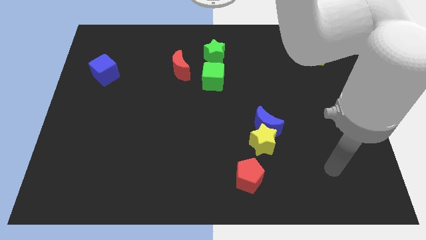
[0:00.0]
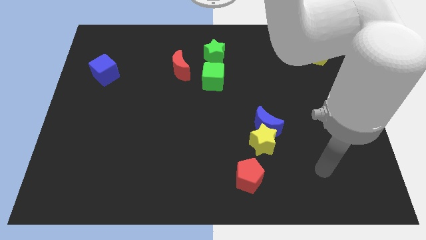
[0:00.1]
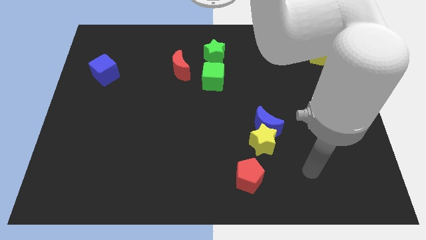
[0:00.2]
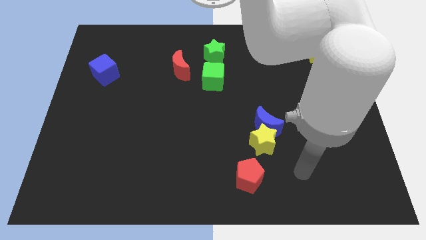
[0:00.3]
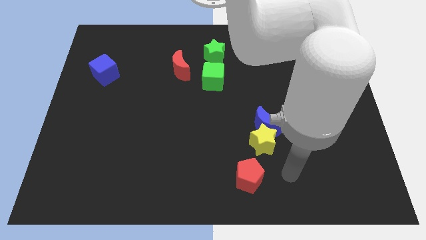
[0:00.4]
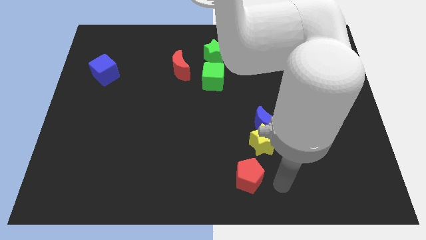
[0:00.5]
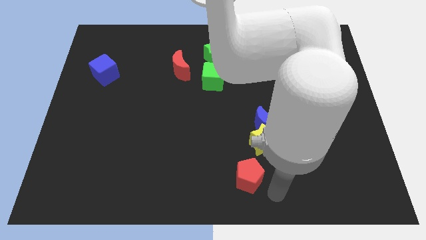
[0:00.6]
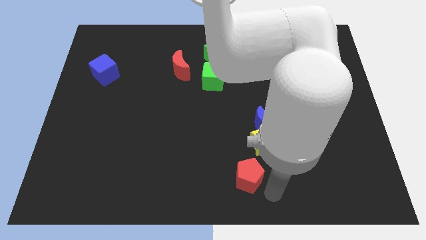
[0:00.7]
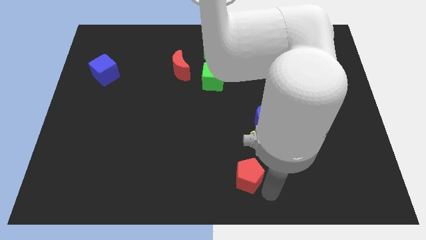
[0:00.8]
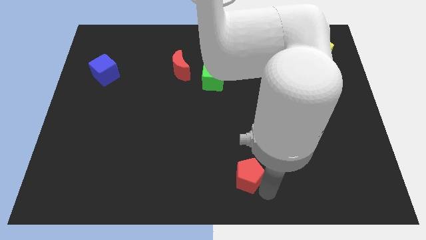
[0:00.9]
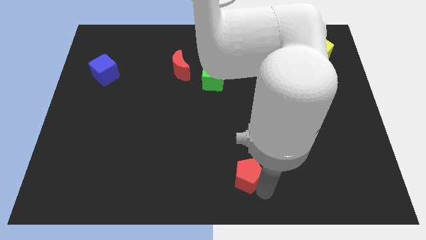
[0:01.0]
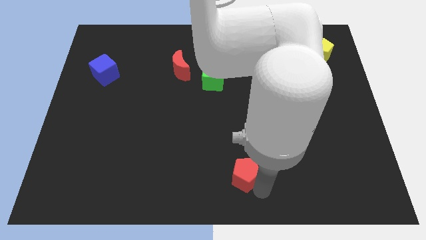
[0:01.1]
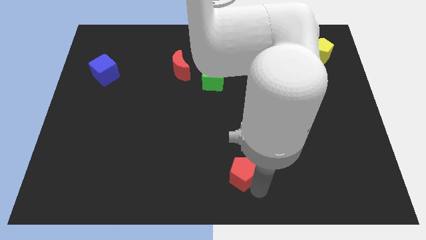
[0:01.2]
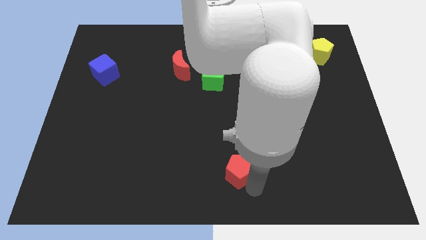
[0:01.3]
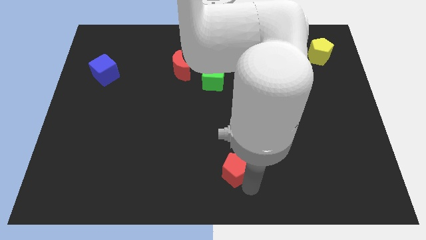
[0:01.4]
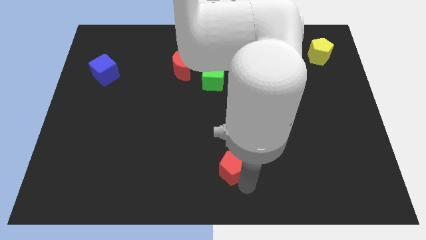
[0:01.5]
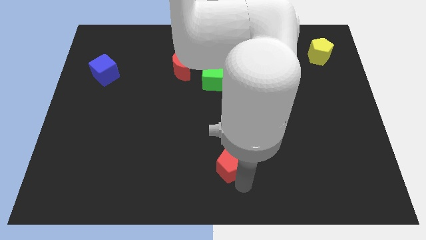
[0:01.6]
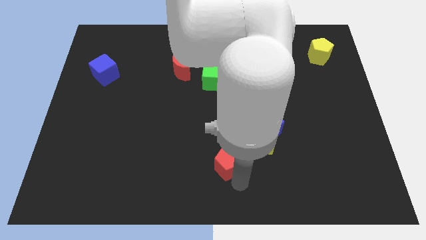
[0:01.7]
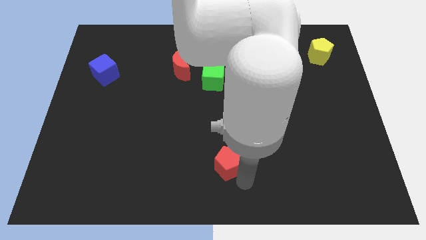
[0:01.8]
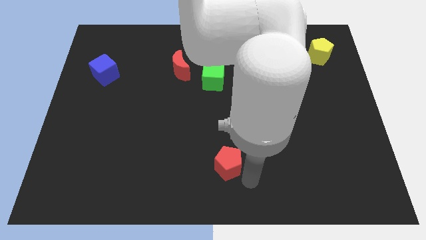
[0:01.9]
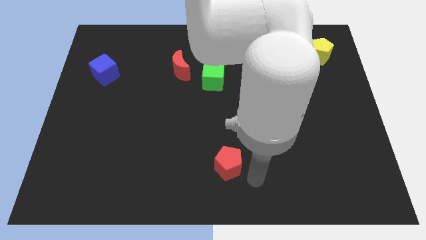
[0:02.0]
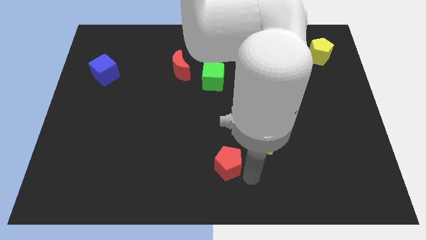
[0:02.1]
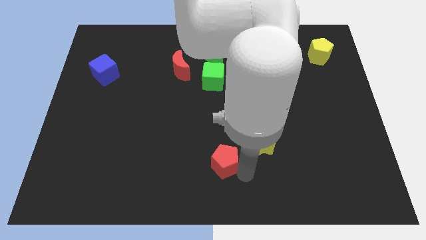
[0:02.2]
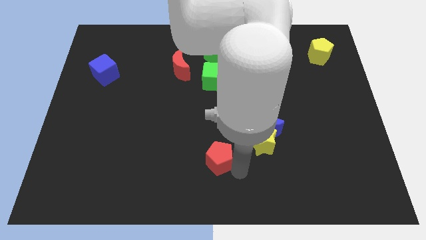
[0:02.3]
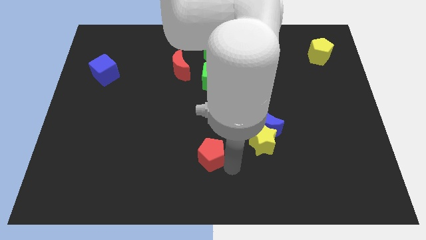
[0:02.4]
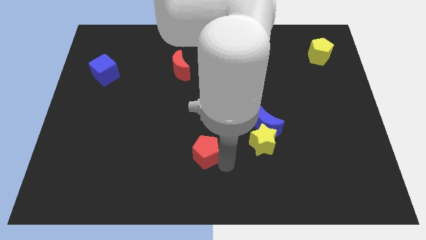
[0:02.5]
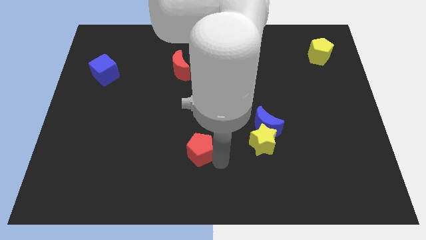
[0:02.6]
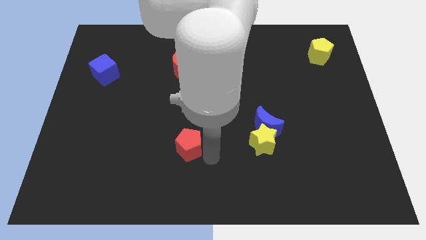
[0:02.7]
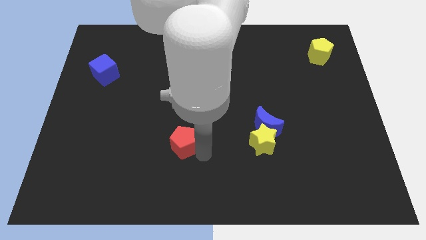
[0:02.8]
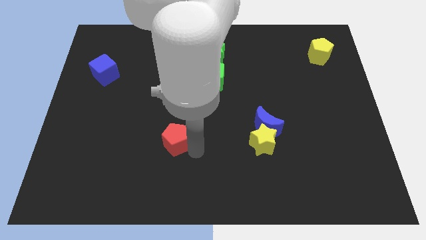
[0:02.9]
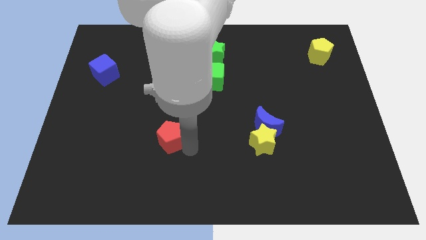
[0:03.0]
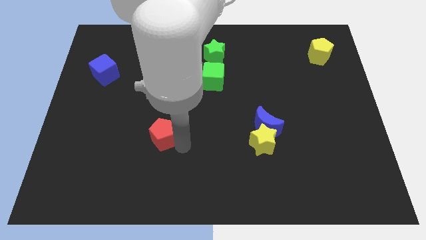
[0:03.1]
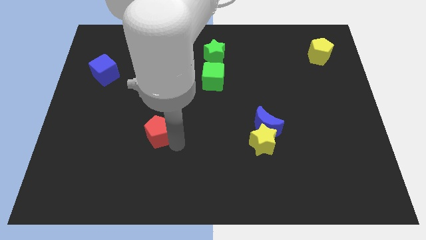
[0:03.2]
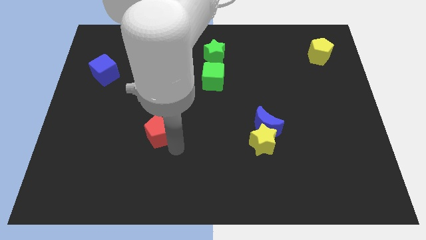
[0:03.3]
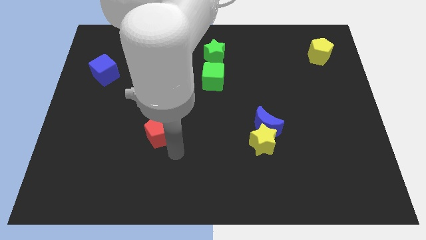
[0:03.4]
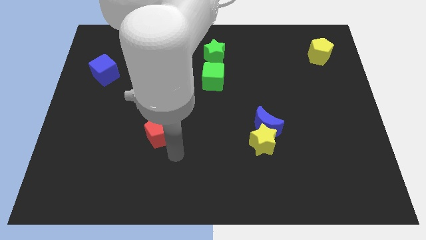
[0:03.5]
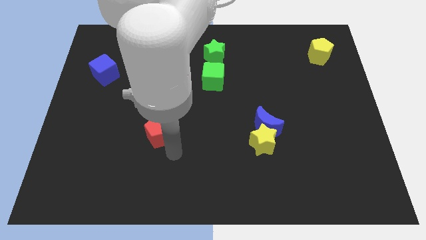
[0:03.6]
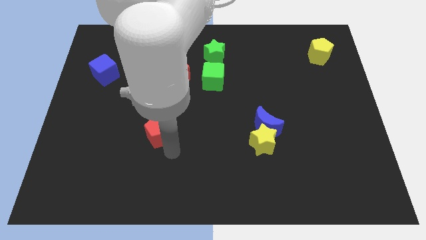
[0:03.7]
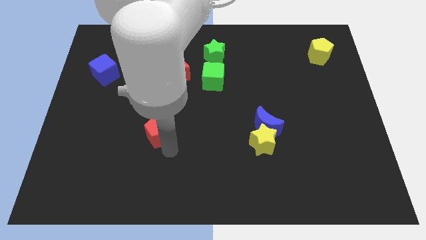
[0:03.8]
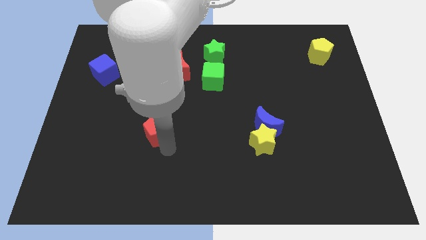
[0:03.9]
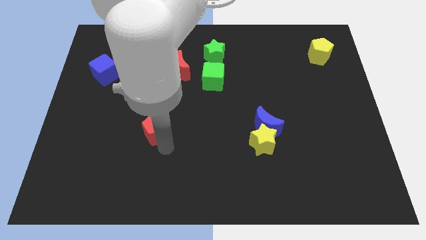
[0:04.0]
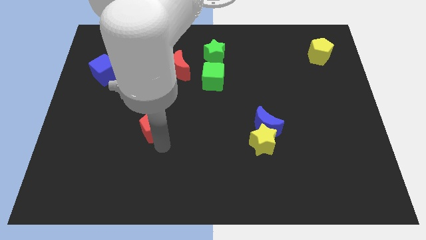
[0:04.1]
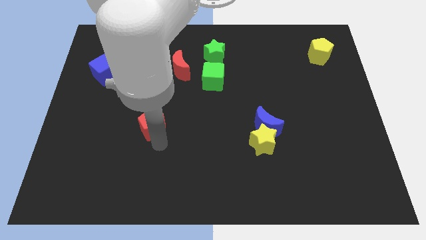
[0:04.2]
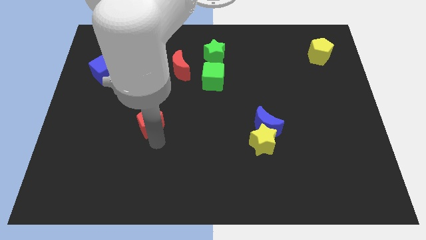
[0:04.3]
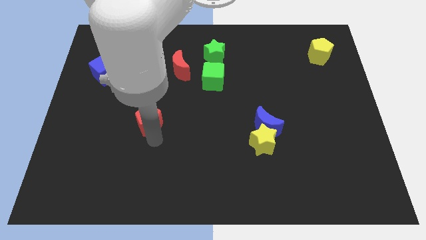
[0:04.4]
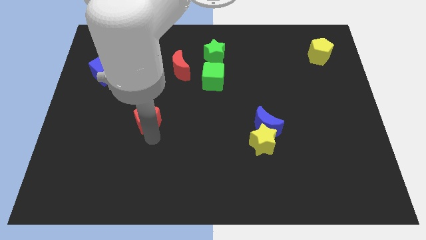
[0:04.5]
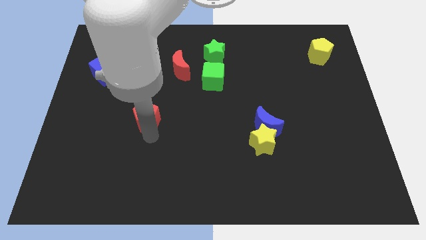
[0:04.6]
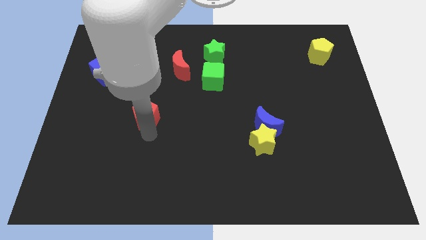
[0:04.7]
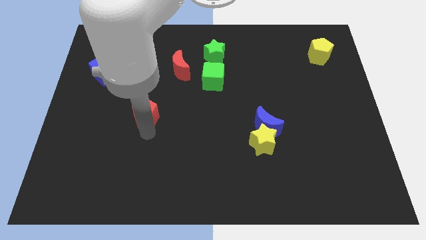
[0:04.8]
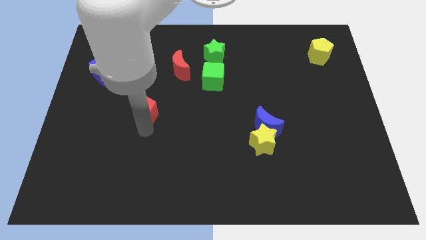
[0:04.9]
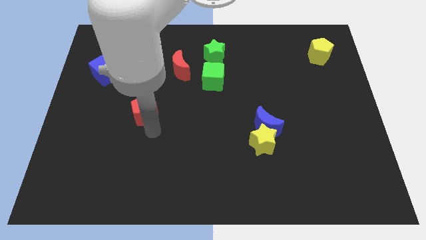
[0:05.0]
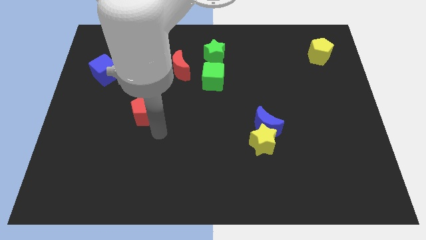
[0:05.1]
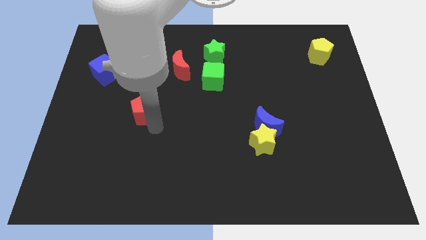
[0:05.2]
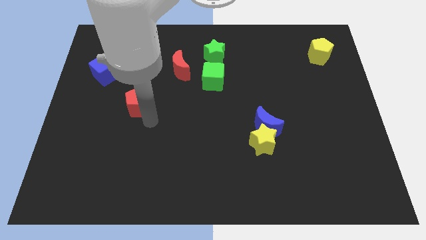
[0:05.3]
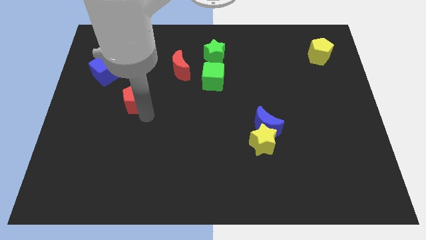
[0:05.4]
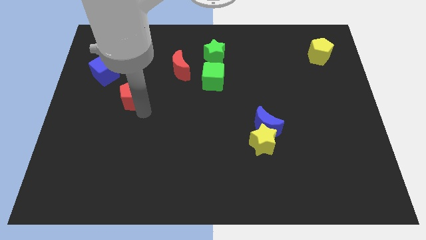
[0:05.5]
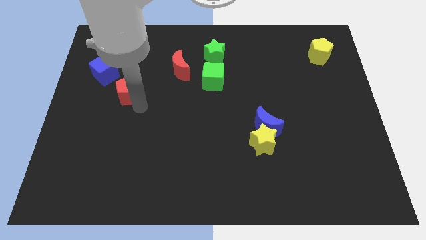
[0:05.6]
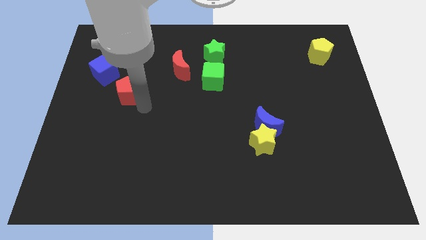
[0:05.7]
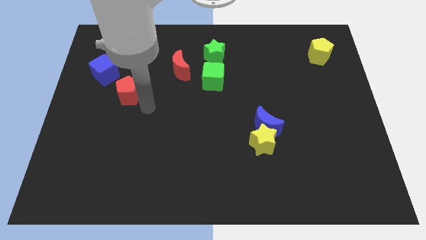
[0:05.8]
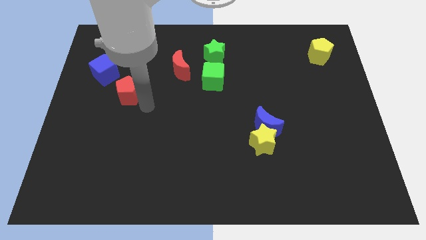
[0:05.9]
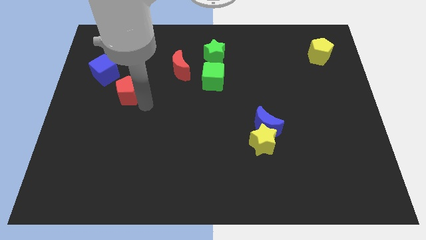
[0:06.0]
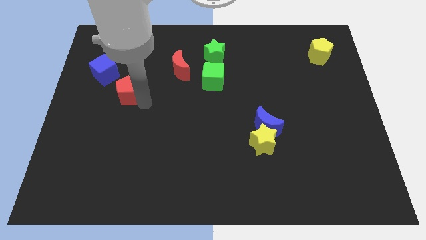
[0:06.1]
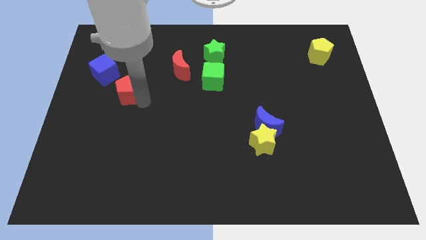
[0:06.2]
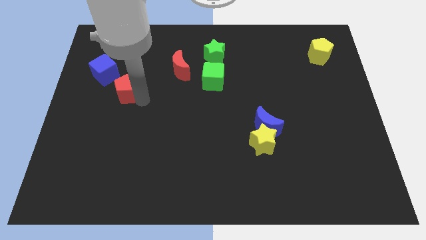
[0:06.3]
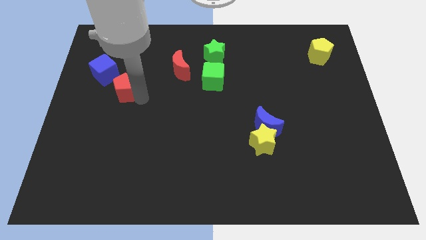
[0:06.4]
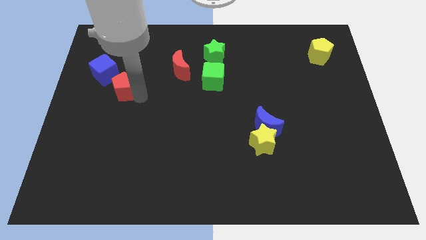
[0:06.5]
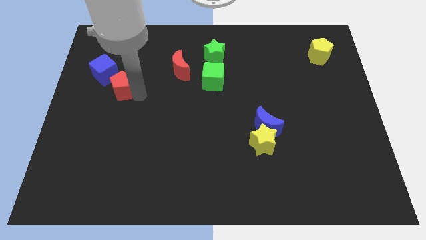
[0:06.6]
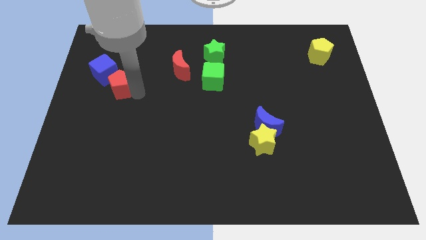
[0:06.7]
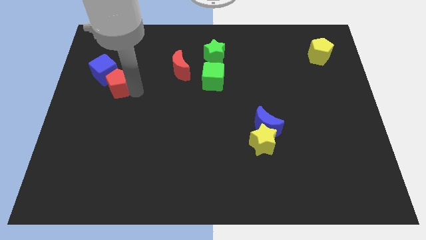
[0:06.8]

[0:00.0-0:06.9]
put the red pentagon close to the blue cube

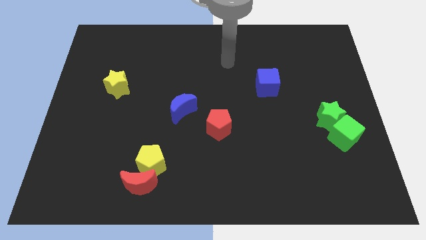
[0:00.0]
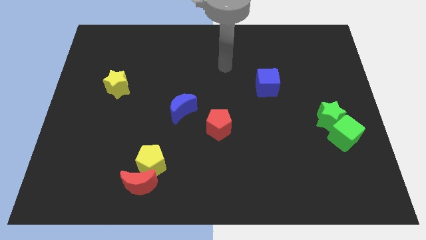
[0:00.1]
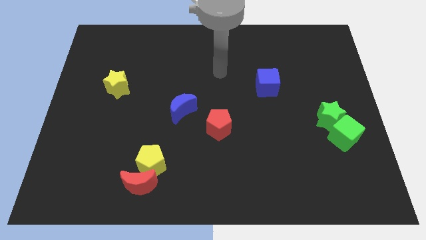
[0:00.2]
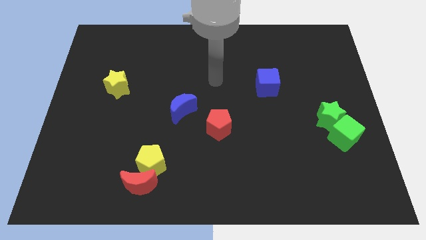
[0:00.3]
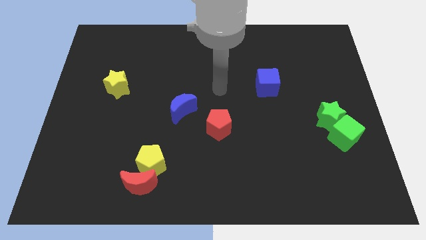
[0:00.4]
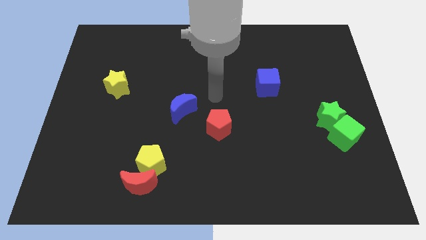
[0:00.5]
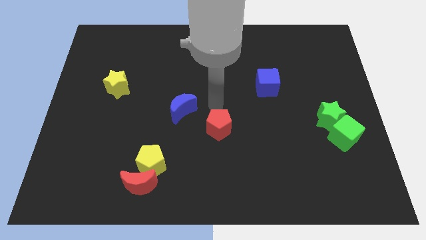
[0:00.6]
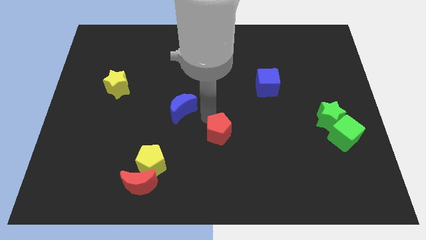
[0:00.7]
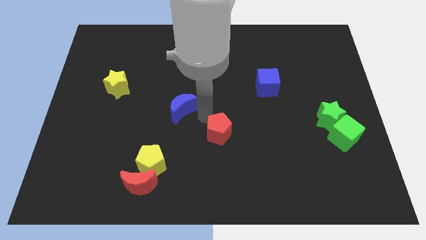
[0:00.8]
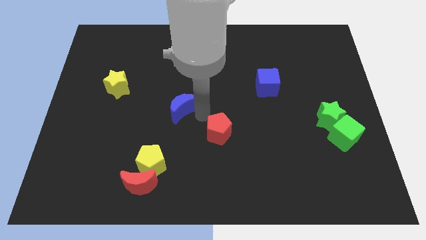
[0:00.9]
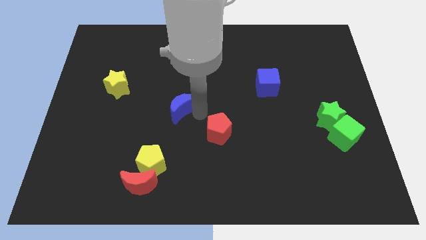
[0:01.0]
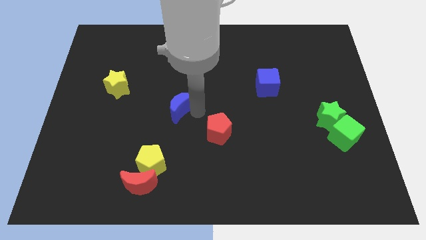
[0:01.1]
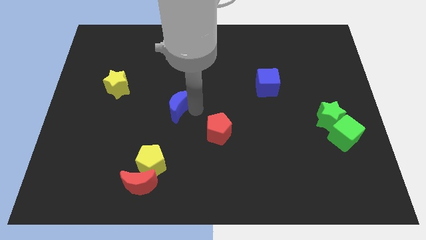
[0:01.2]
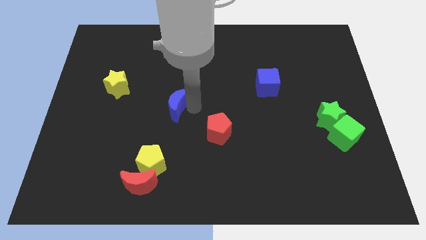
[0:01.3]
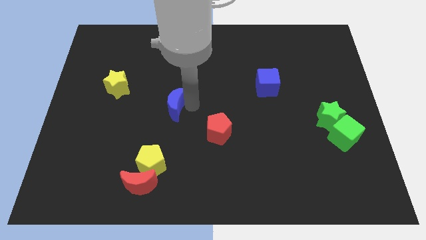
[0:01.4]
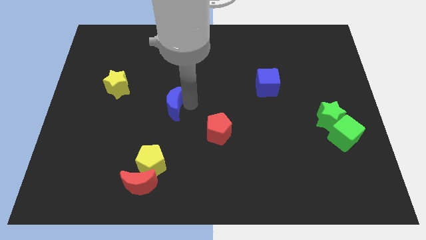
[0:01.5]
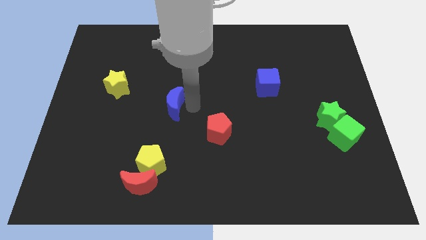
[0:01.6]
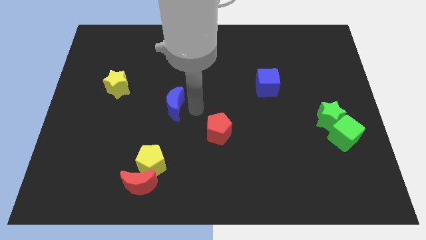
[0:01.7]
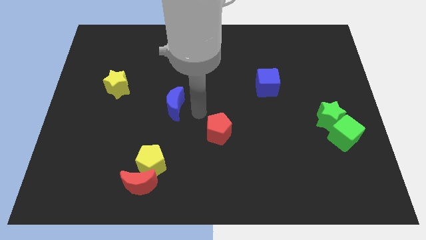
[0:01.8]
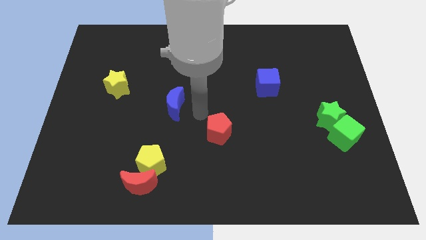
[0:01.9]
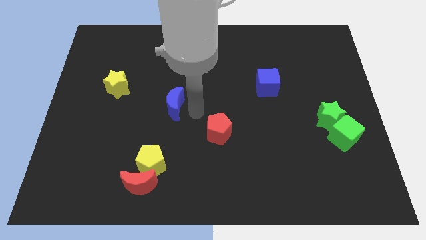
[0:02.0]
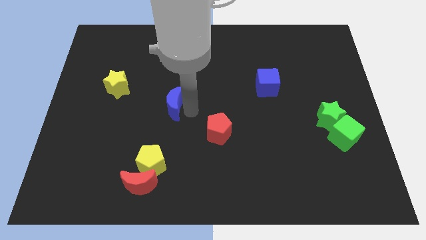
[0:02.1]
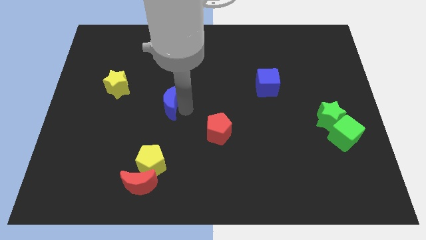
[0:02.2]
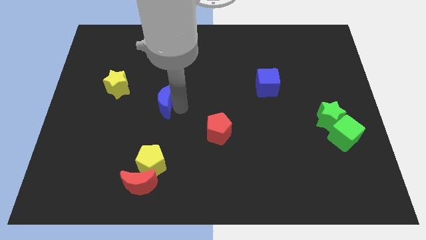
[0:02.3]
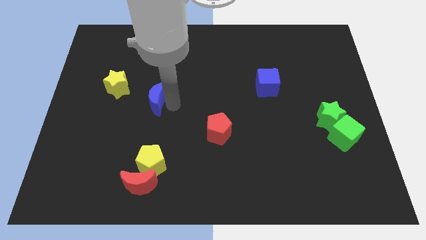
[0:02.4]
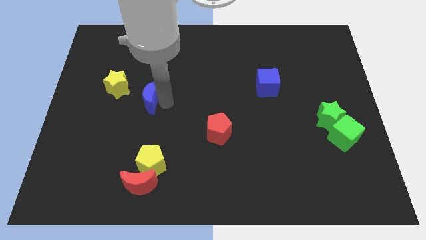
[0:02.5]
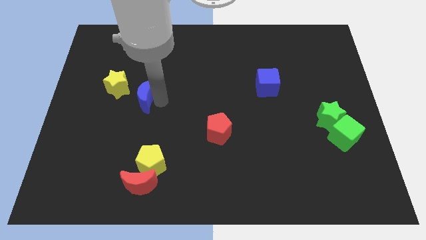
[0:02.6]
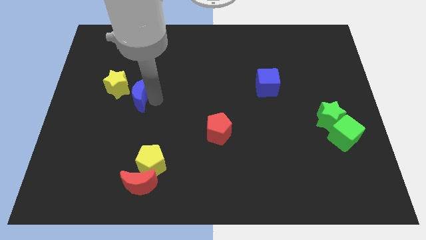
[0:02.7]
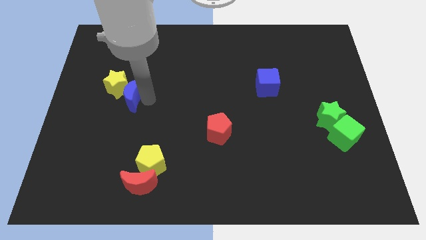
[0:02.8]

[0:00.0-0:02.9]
push the blue moon close to the yellow star
